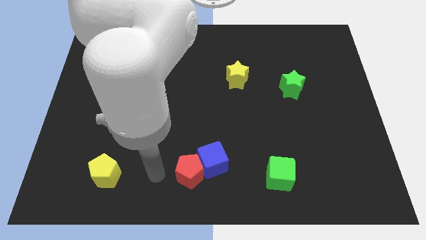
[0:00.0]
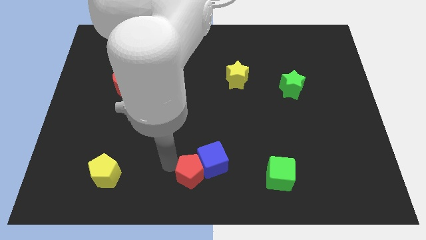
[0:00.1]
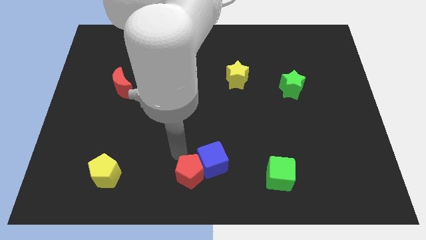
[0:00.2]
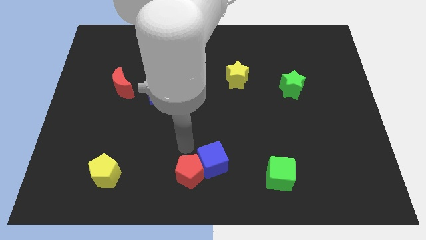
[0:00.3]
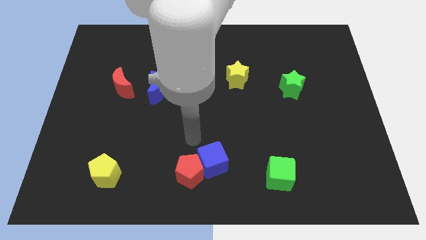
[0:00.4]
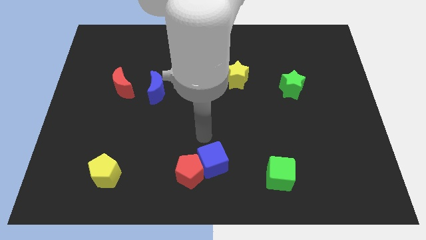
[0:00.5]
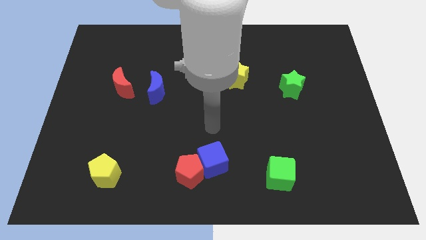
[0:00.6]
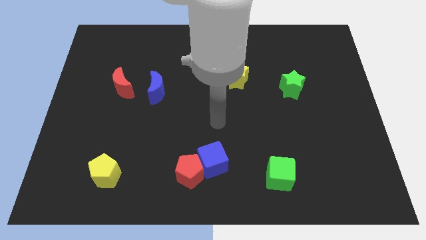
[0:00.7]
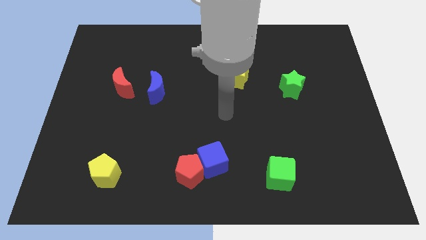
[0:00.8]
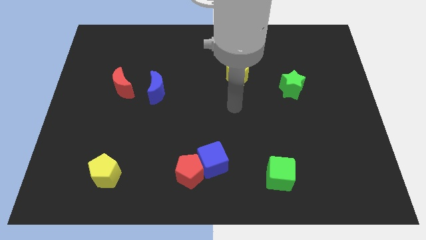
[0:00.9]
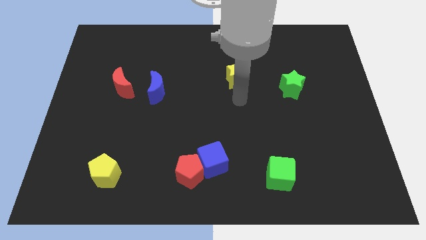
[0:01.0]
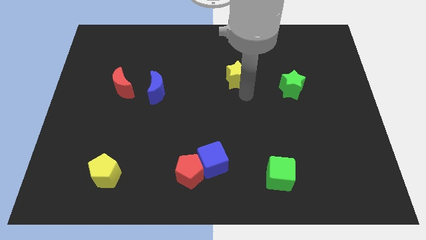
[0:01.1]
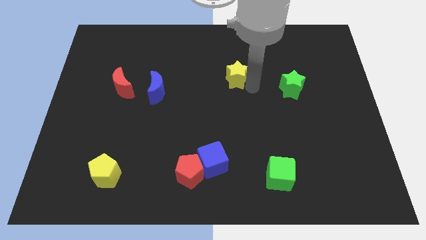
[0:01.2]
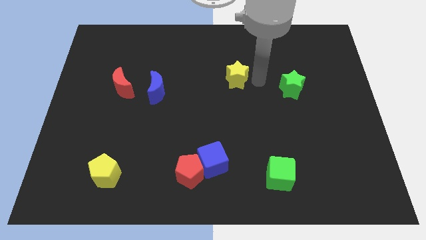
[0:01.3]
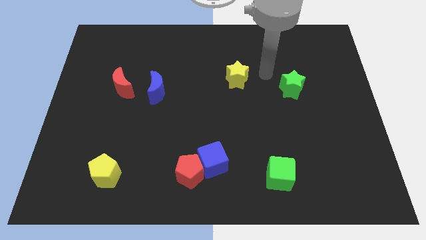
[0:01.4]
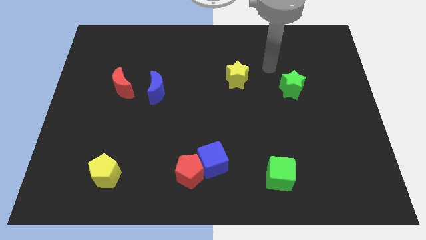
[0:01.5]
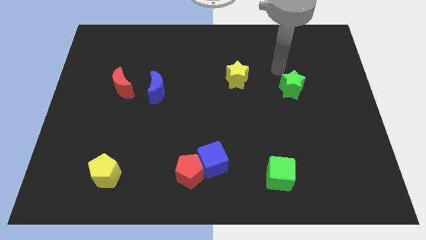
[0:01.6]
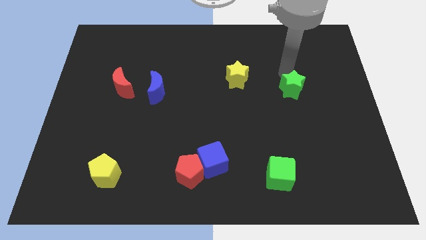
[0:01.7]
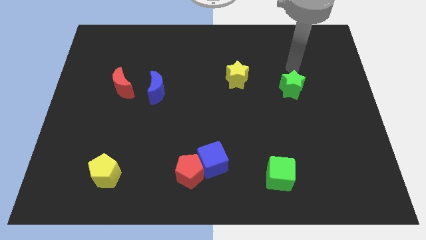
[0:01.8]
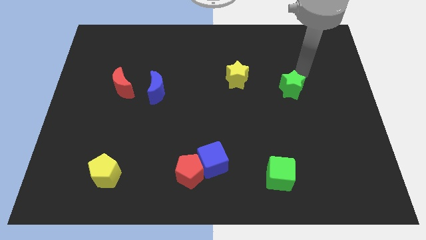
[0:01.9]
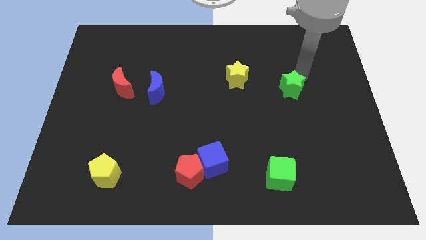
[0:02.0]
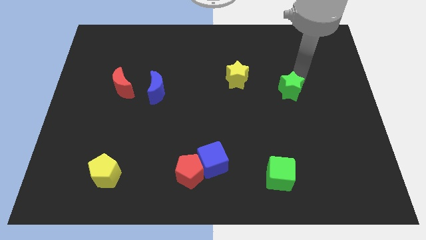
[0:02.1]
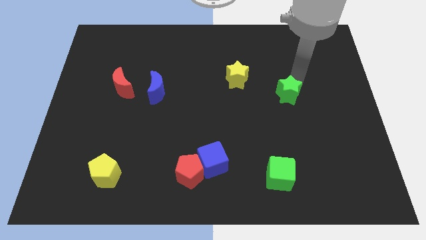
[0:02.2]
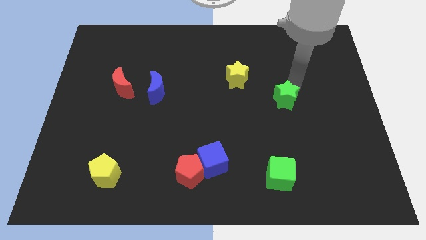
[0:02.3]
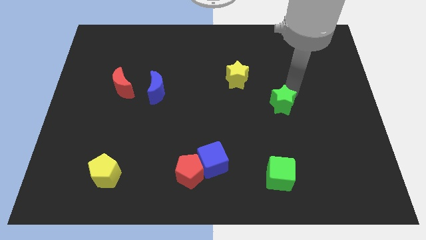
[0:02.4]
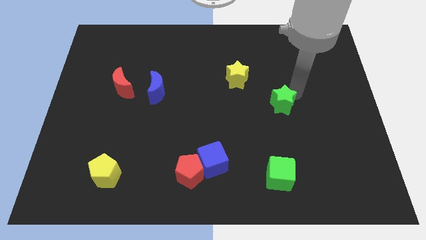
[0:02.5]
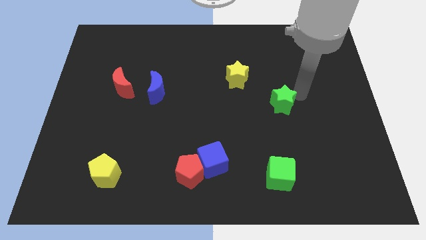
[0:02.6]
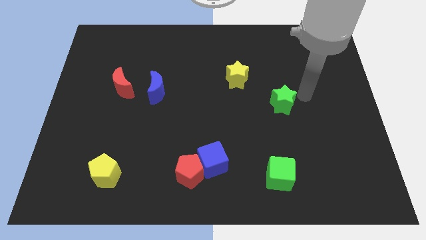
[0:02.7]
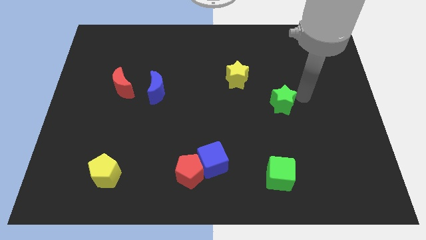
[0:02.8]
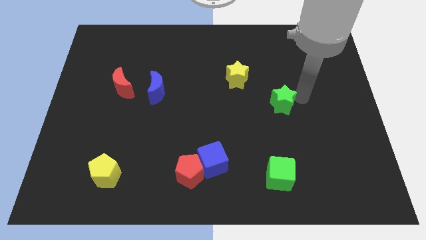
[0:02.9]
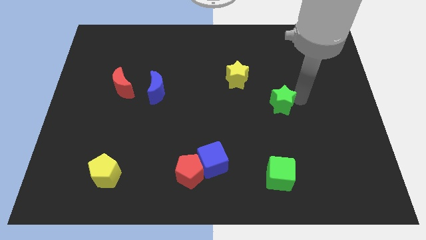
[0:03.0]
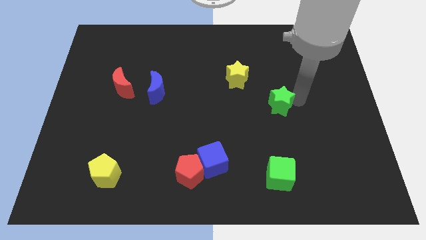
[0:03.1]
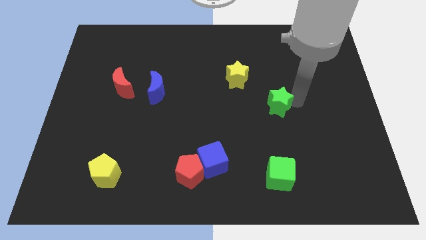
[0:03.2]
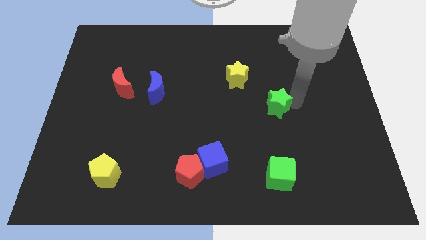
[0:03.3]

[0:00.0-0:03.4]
slide the green star downwards and to the left diagonally a little

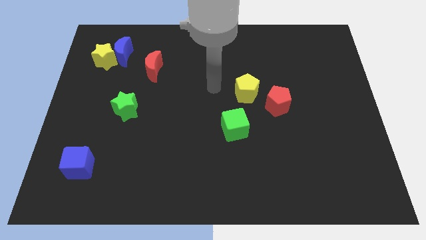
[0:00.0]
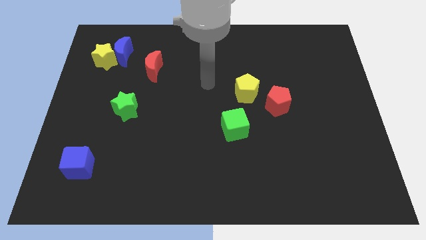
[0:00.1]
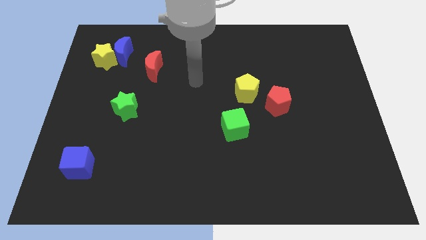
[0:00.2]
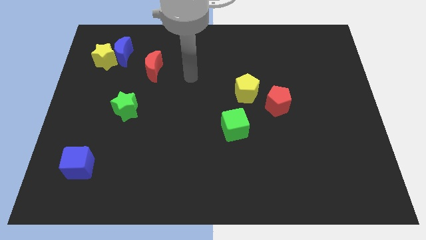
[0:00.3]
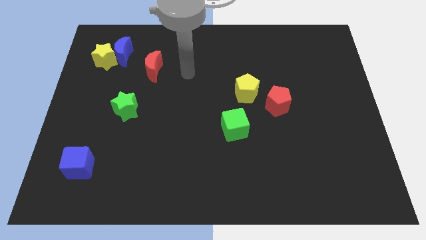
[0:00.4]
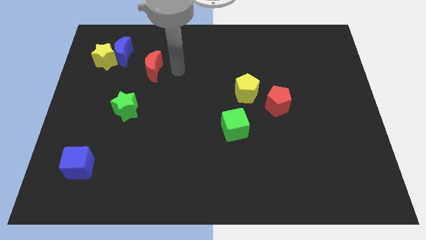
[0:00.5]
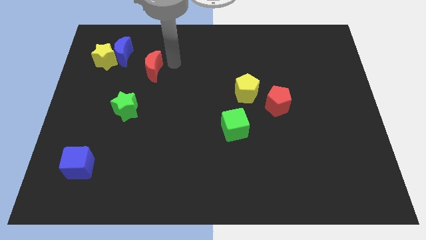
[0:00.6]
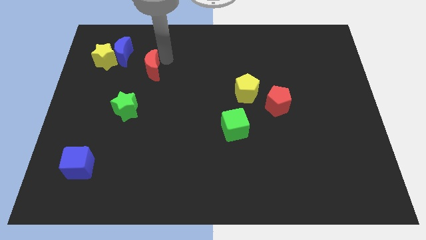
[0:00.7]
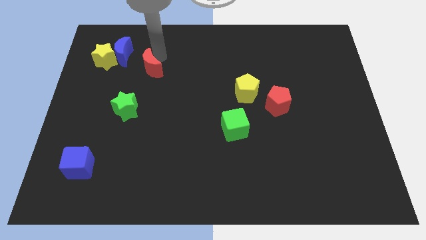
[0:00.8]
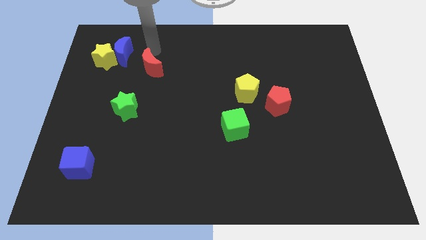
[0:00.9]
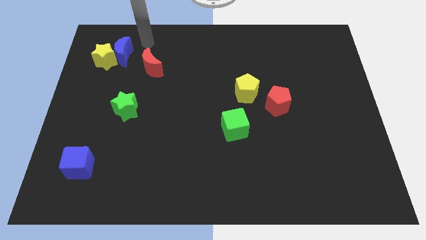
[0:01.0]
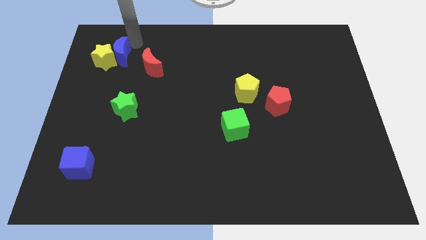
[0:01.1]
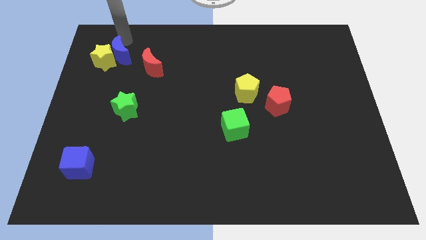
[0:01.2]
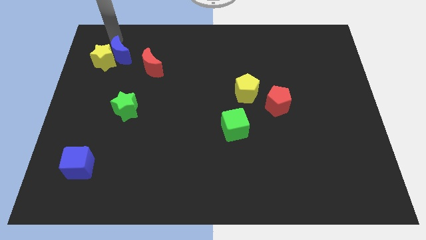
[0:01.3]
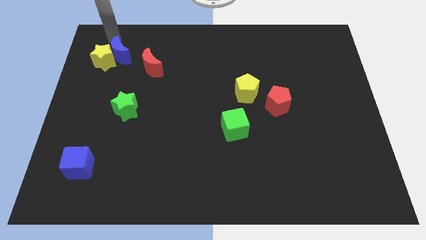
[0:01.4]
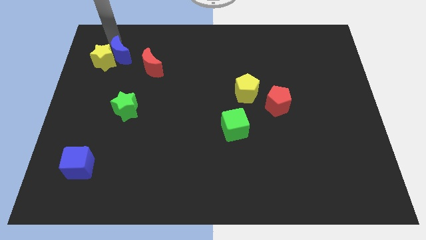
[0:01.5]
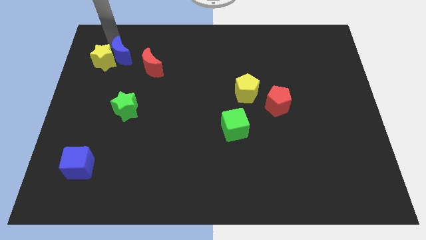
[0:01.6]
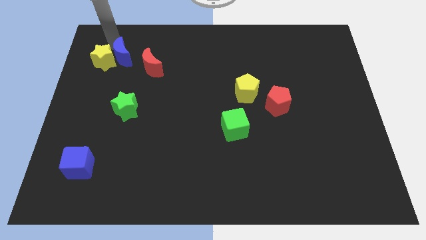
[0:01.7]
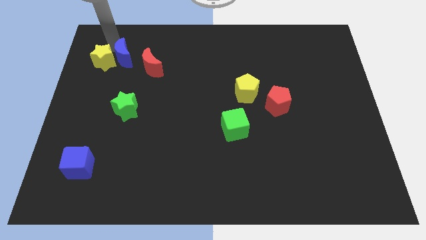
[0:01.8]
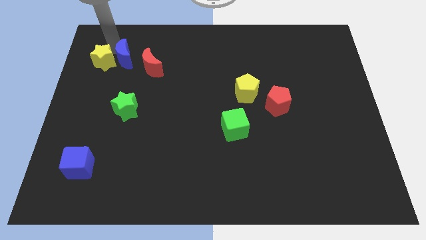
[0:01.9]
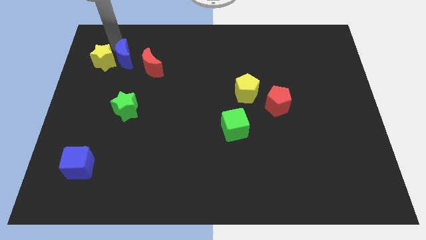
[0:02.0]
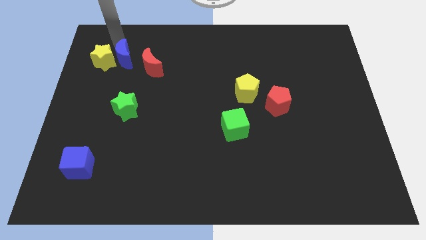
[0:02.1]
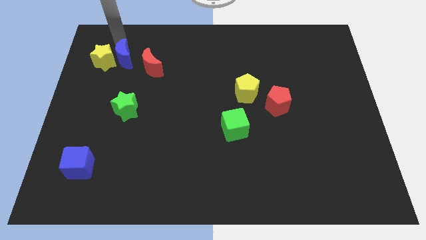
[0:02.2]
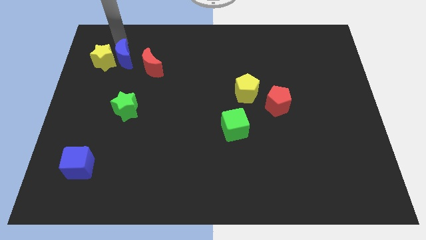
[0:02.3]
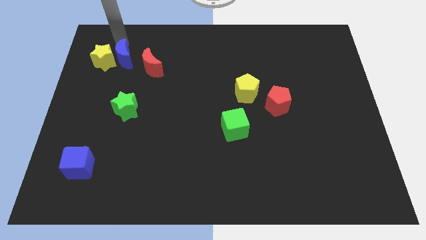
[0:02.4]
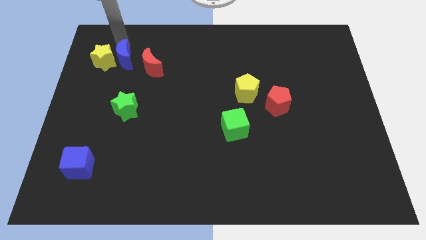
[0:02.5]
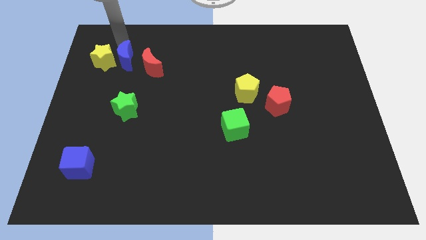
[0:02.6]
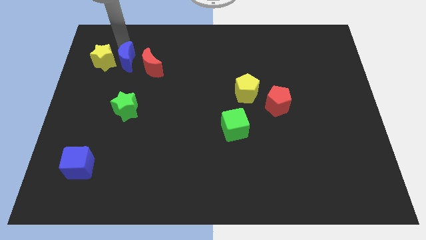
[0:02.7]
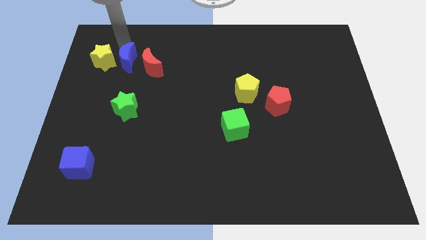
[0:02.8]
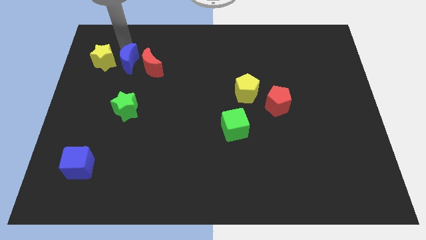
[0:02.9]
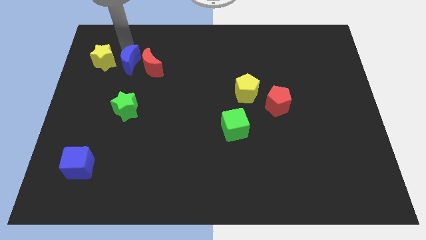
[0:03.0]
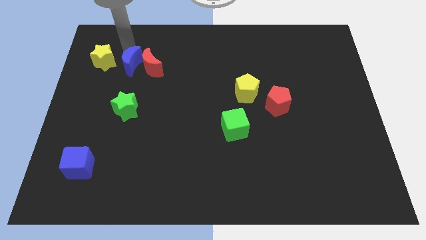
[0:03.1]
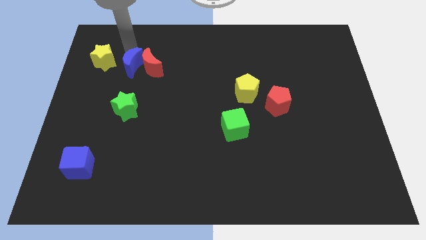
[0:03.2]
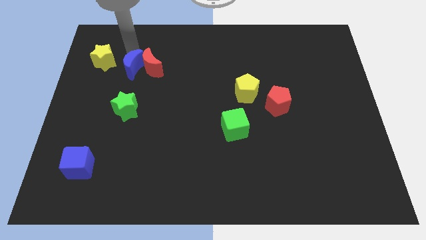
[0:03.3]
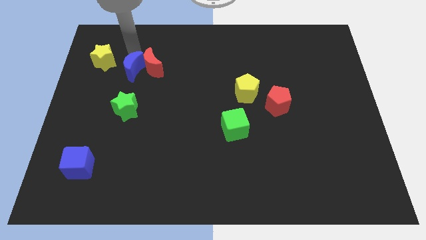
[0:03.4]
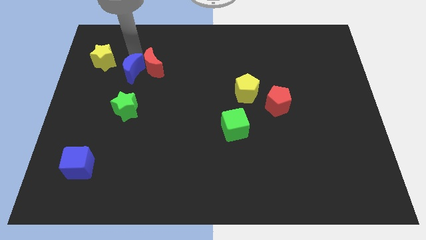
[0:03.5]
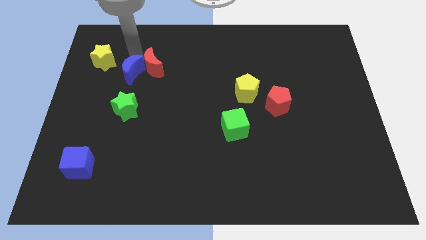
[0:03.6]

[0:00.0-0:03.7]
slightly slide the blue moon down and right diagonally

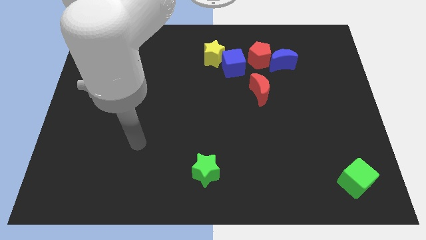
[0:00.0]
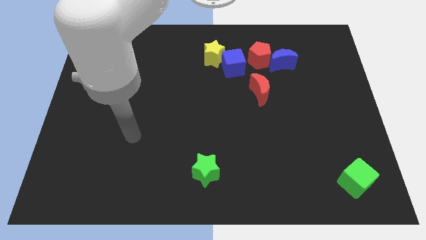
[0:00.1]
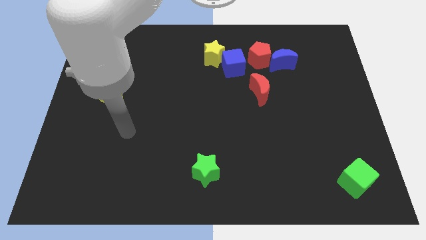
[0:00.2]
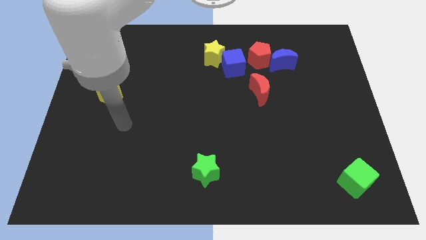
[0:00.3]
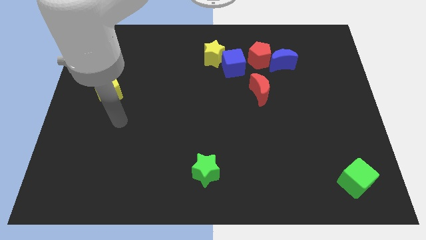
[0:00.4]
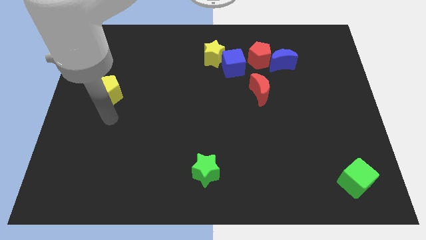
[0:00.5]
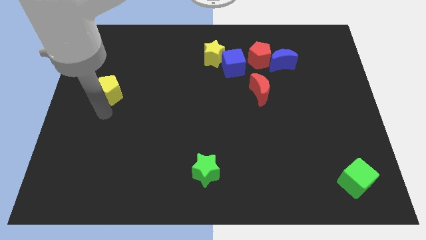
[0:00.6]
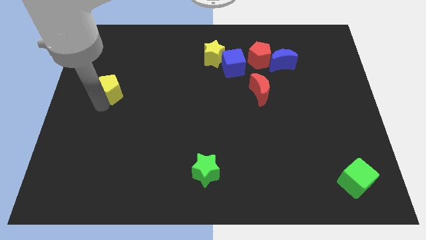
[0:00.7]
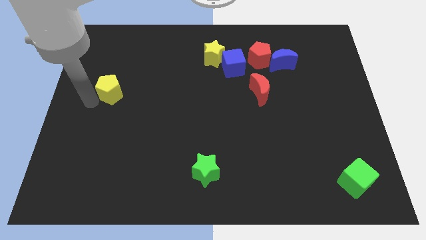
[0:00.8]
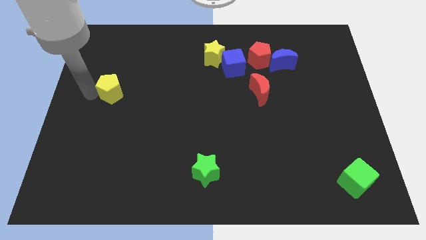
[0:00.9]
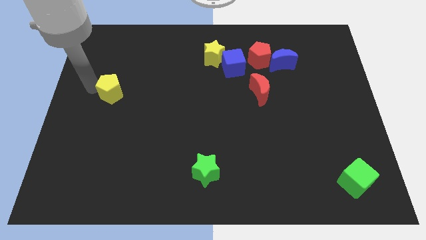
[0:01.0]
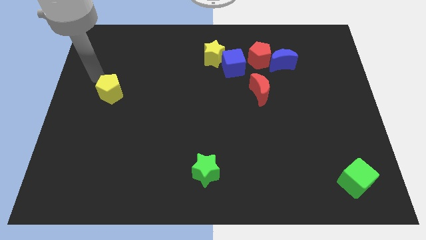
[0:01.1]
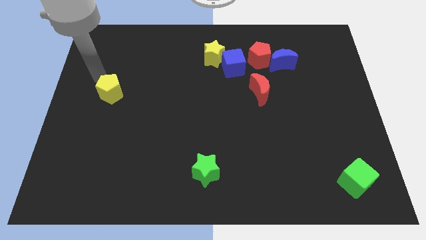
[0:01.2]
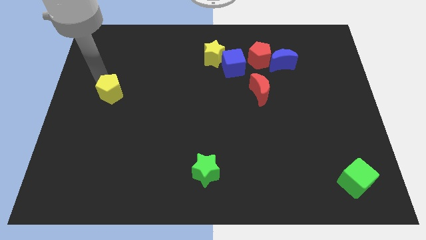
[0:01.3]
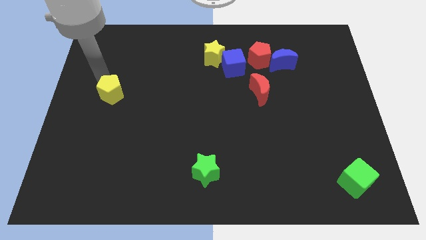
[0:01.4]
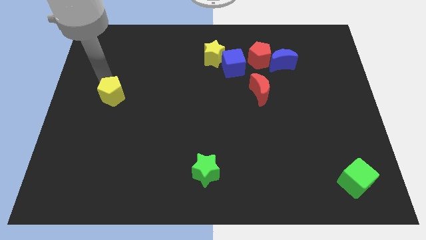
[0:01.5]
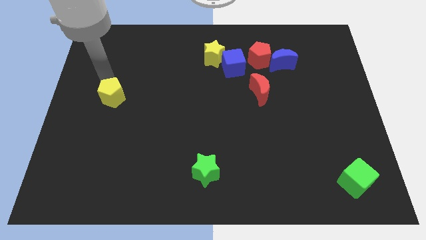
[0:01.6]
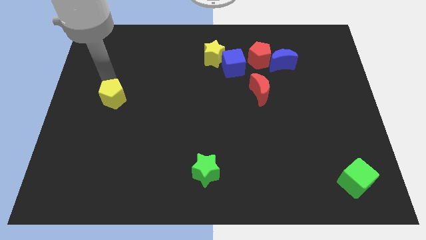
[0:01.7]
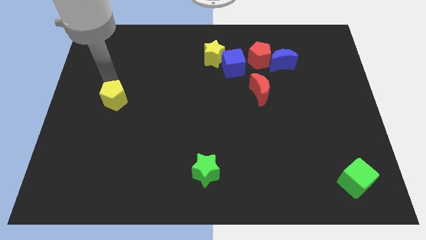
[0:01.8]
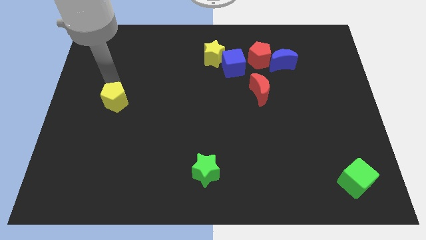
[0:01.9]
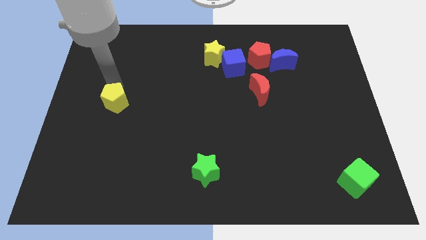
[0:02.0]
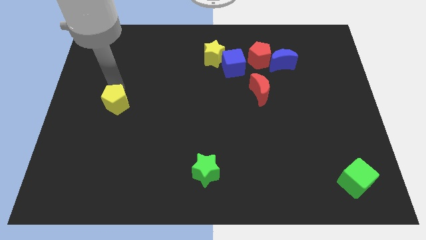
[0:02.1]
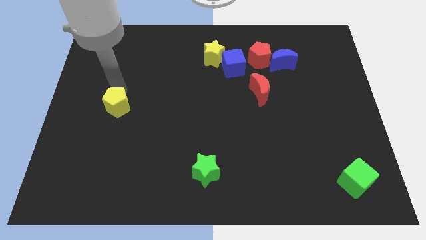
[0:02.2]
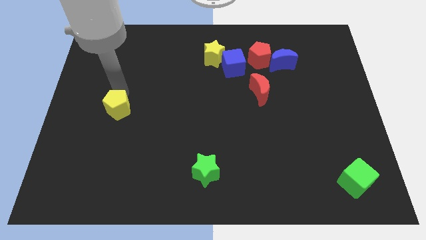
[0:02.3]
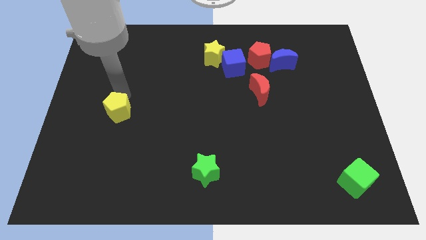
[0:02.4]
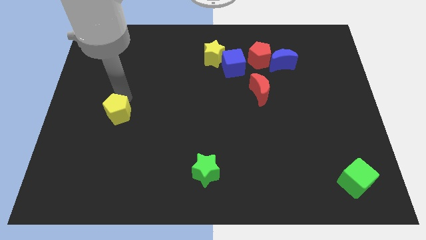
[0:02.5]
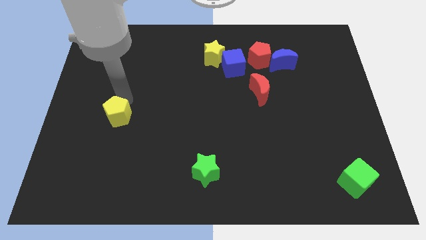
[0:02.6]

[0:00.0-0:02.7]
slightly push the yellow pentagon downwards and to the right diagonally
